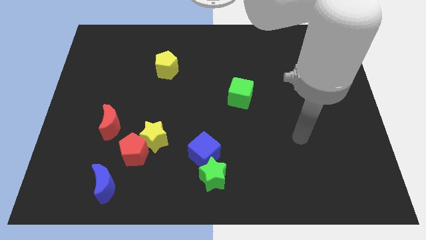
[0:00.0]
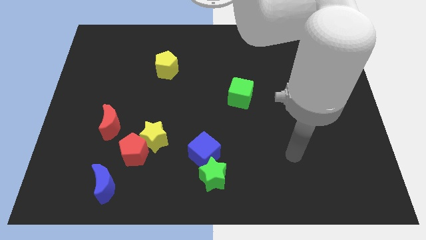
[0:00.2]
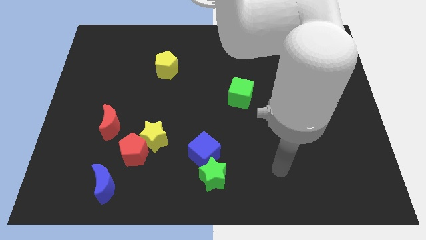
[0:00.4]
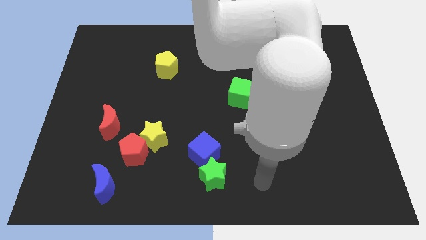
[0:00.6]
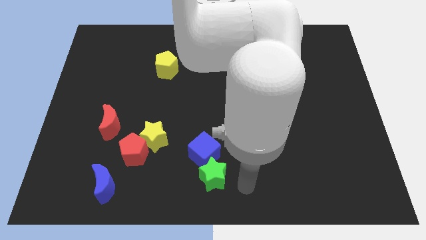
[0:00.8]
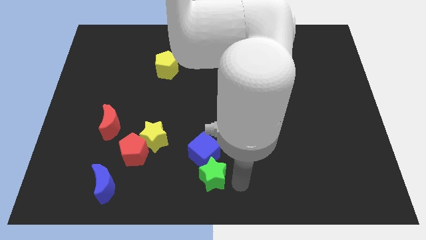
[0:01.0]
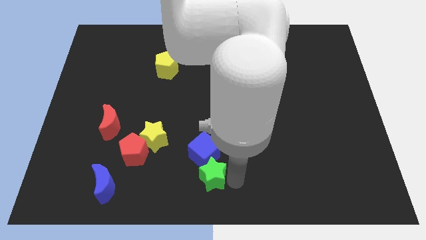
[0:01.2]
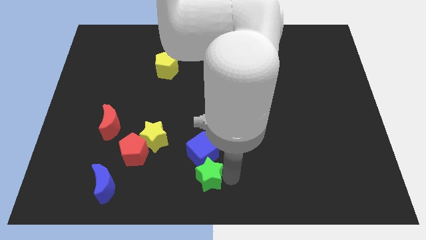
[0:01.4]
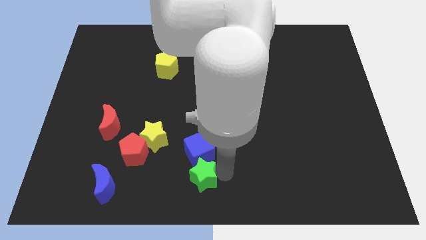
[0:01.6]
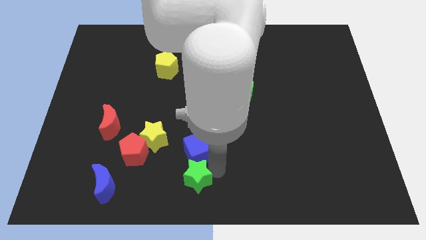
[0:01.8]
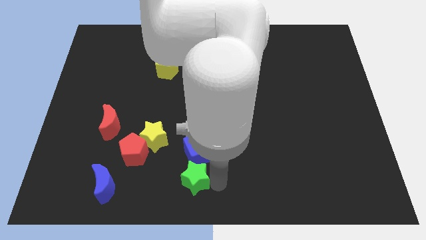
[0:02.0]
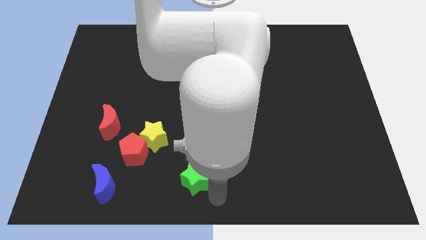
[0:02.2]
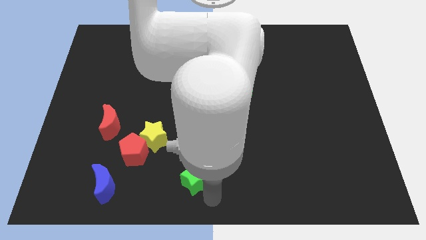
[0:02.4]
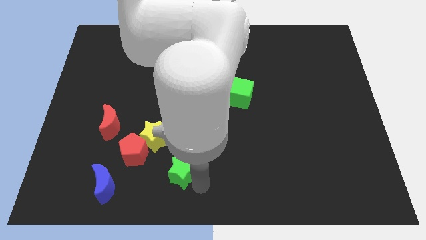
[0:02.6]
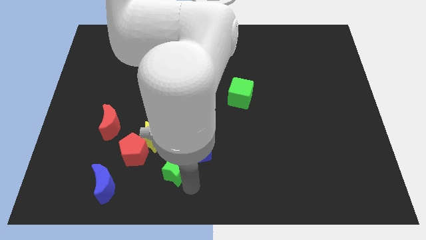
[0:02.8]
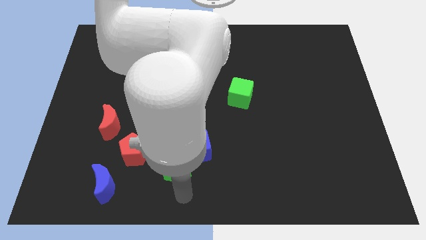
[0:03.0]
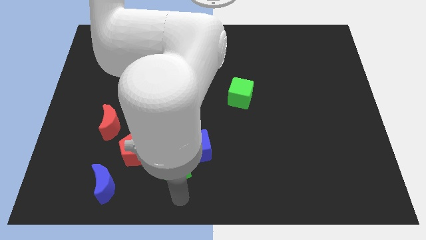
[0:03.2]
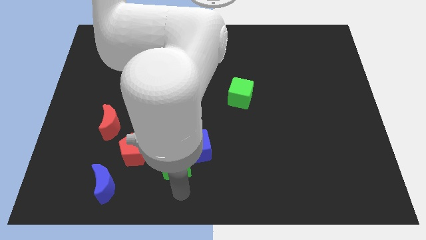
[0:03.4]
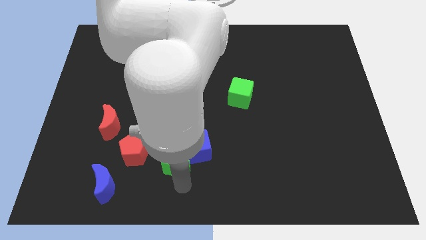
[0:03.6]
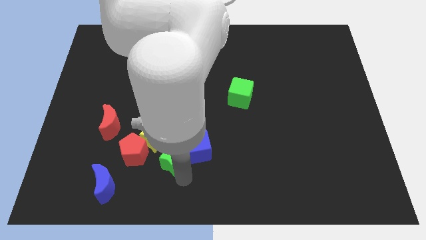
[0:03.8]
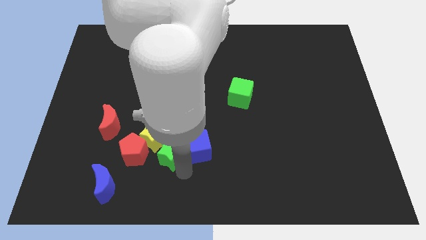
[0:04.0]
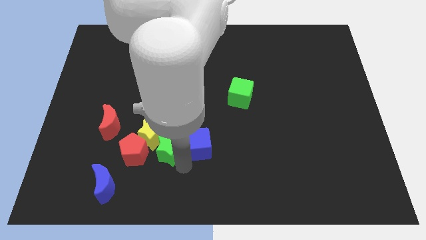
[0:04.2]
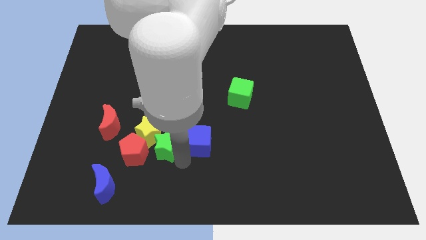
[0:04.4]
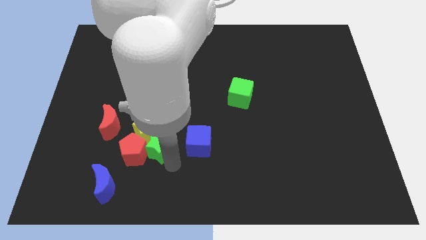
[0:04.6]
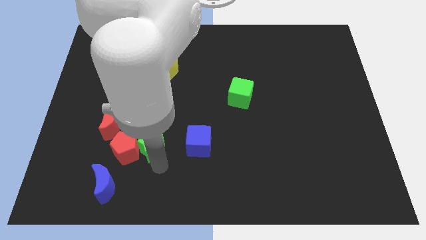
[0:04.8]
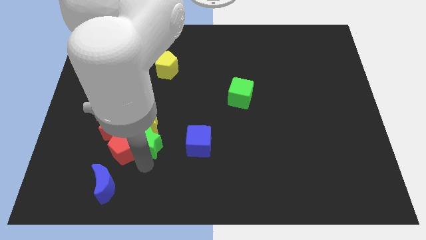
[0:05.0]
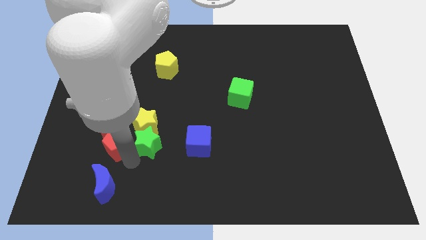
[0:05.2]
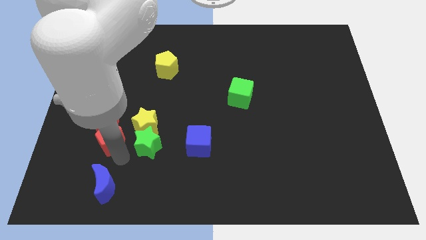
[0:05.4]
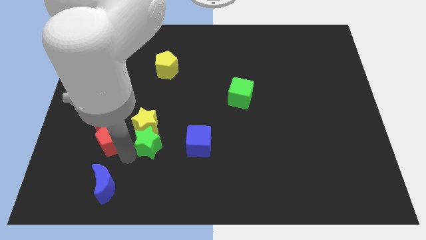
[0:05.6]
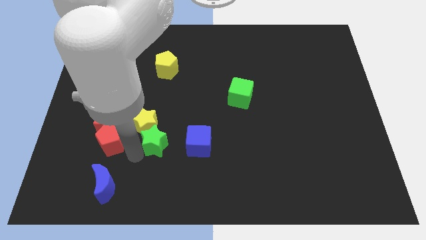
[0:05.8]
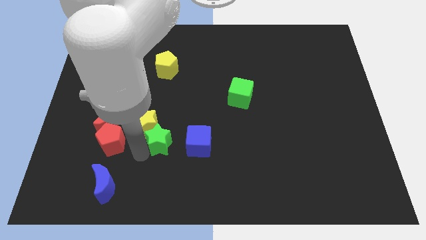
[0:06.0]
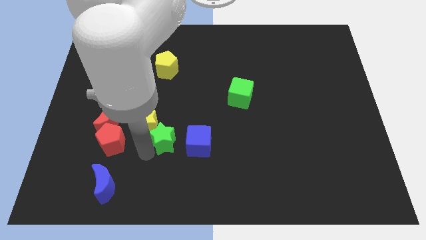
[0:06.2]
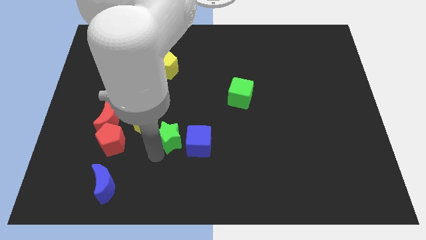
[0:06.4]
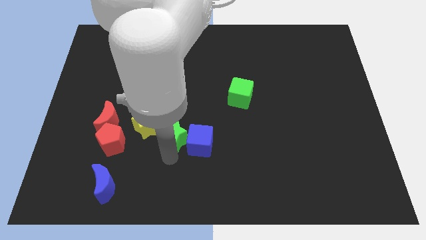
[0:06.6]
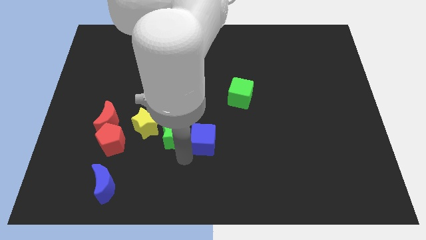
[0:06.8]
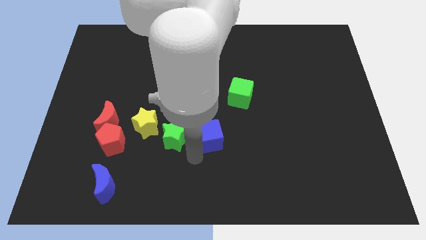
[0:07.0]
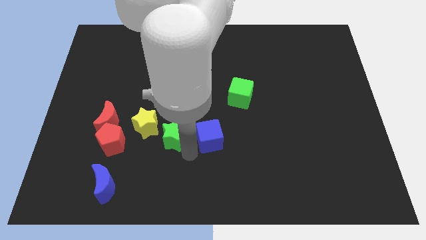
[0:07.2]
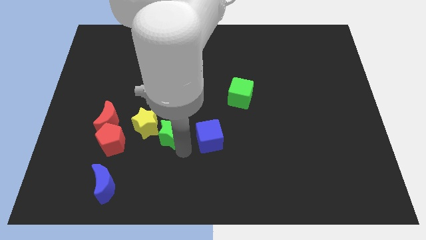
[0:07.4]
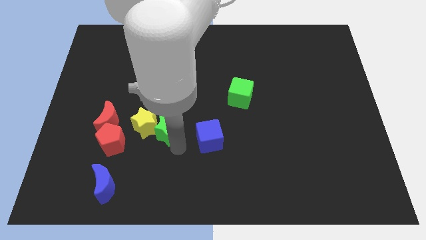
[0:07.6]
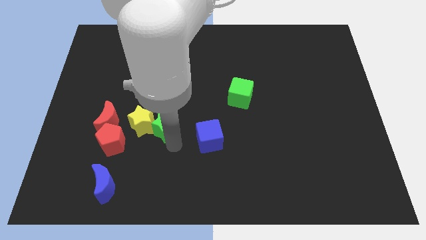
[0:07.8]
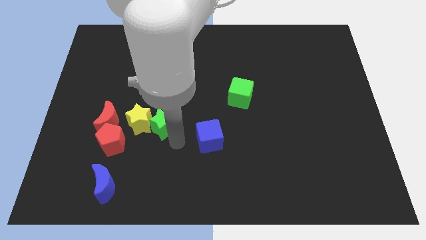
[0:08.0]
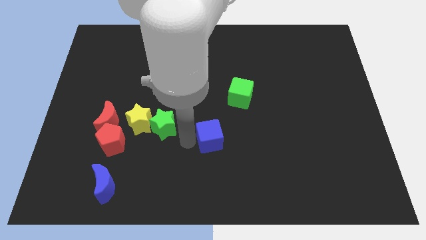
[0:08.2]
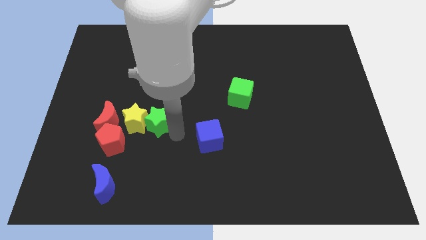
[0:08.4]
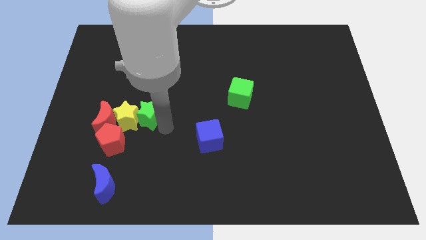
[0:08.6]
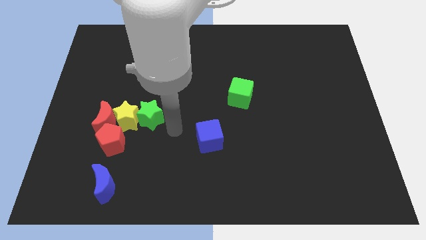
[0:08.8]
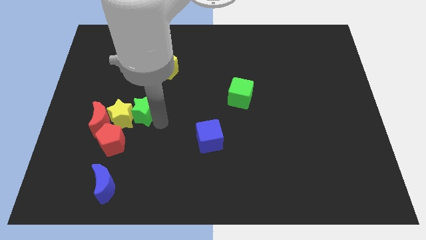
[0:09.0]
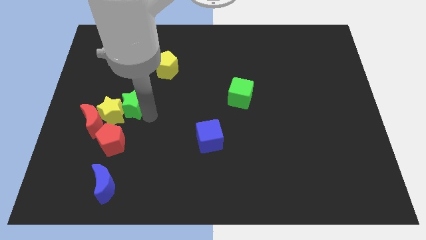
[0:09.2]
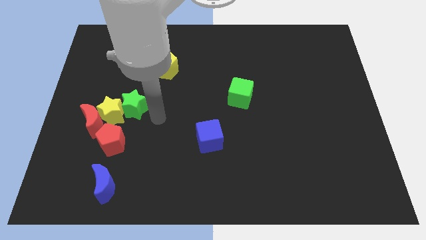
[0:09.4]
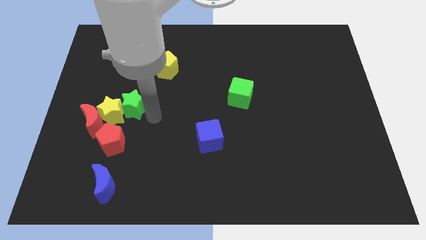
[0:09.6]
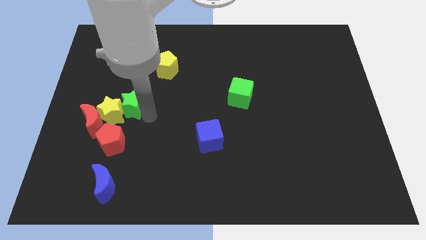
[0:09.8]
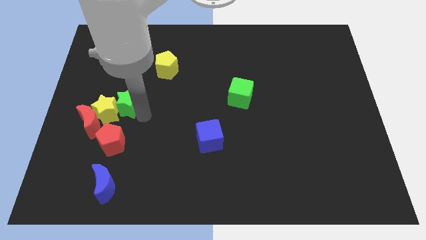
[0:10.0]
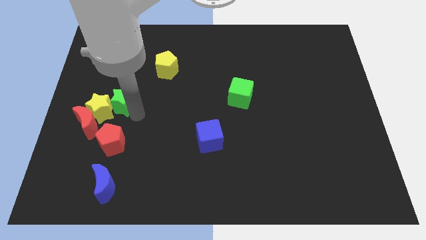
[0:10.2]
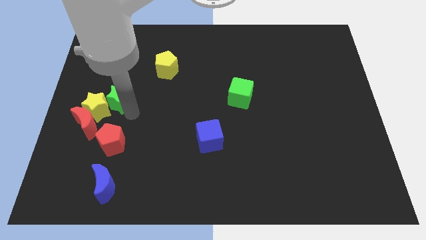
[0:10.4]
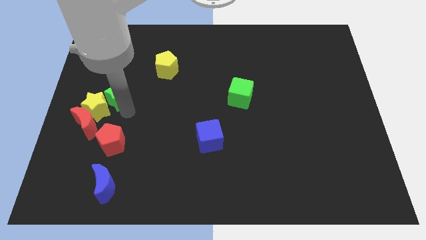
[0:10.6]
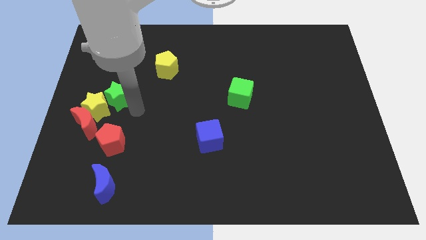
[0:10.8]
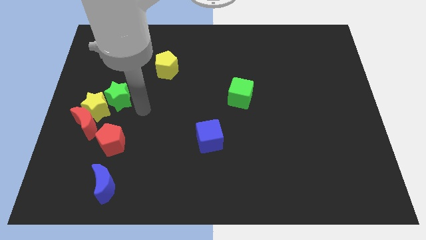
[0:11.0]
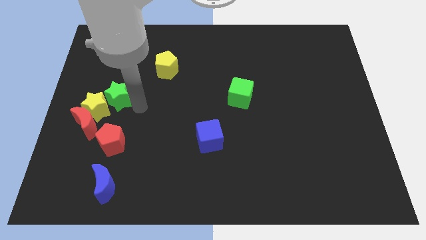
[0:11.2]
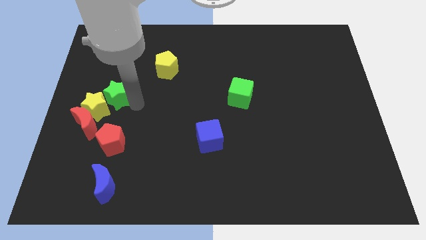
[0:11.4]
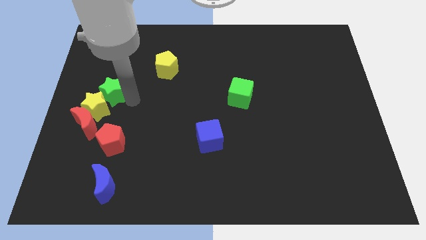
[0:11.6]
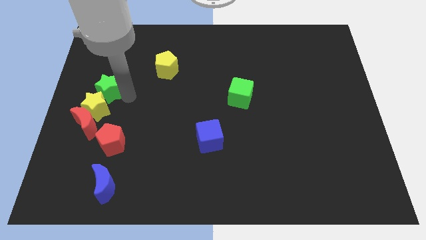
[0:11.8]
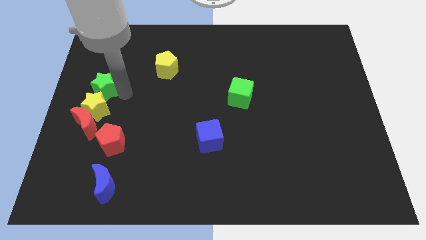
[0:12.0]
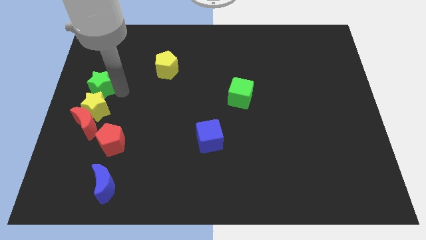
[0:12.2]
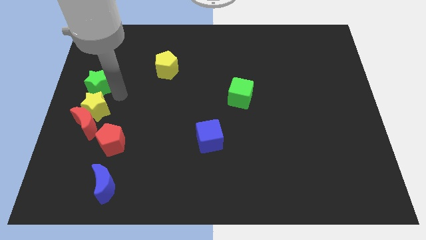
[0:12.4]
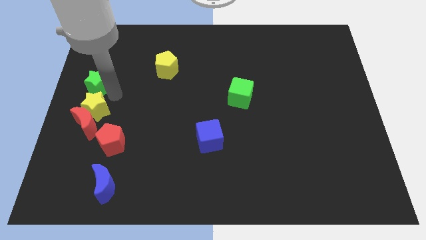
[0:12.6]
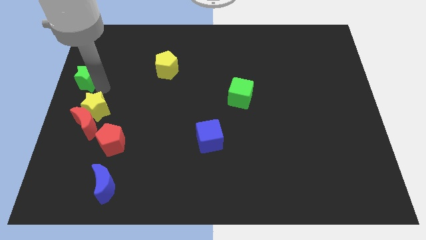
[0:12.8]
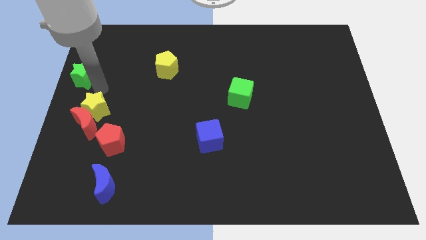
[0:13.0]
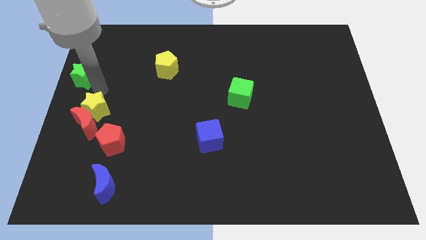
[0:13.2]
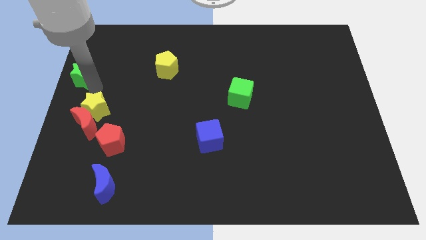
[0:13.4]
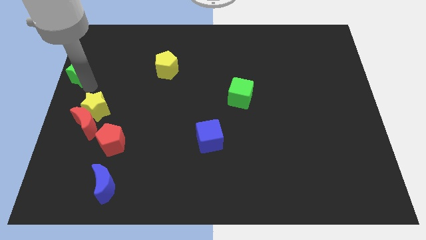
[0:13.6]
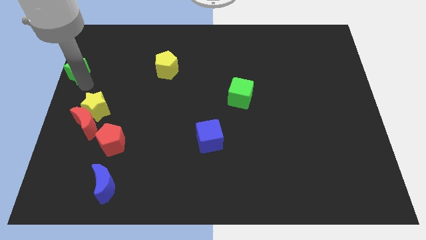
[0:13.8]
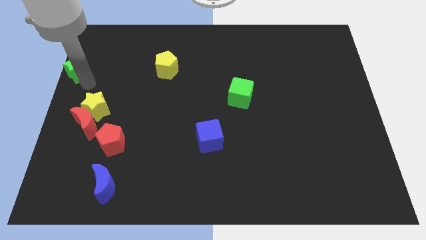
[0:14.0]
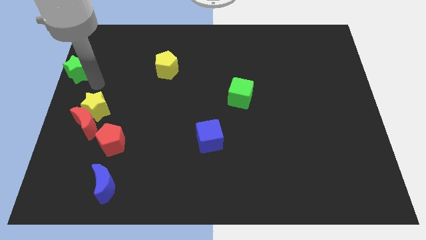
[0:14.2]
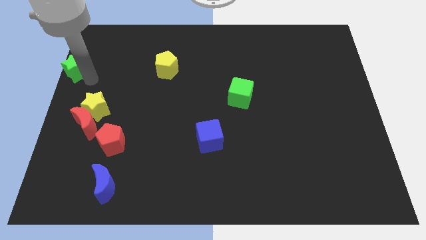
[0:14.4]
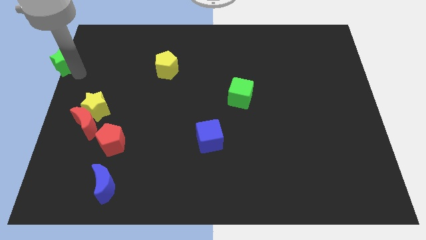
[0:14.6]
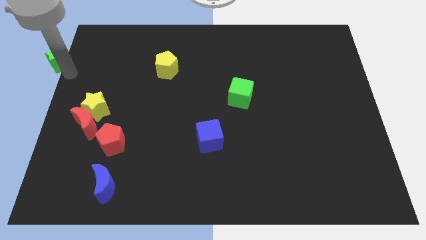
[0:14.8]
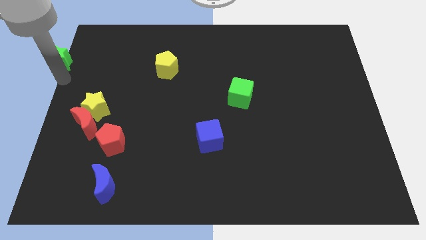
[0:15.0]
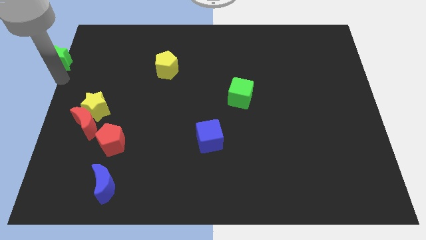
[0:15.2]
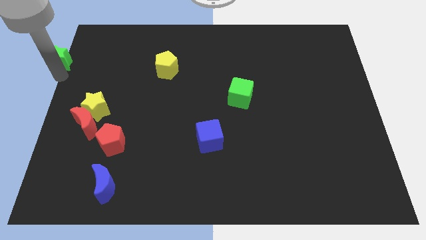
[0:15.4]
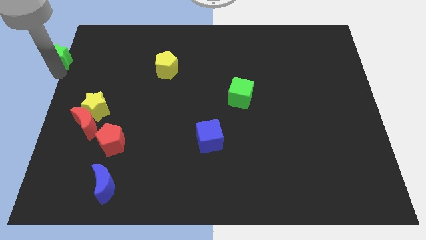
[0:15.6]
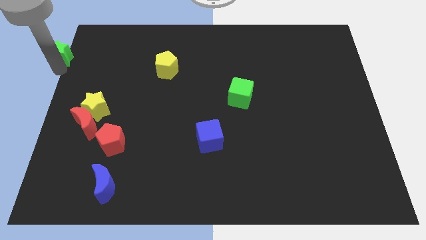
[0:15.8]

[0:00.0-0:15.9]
slide the green star to the top left of the board
